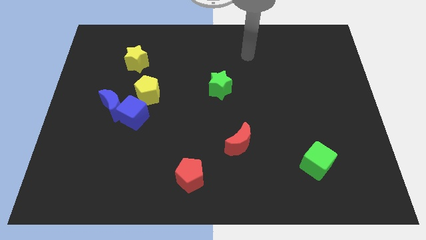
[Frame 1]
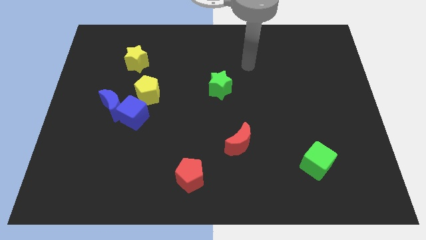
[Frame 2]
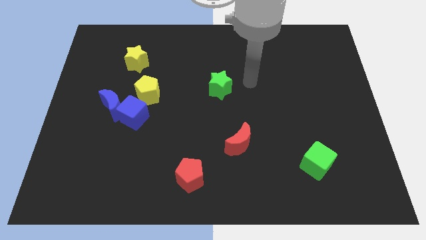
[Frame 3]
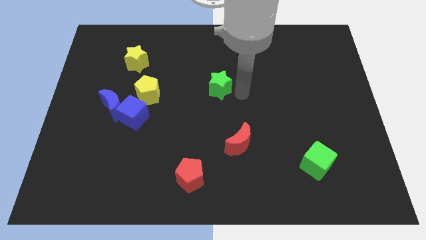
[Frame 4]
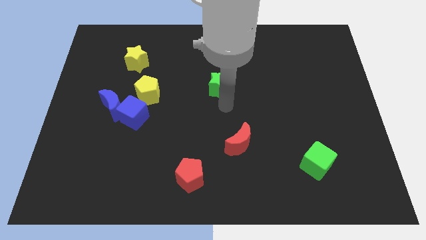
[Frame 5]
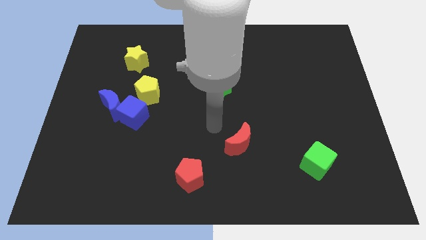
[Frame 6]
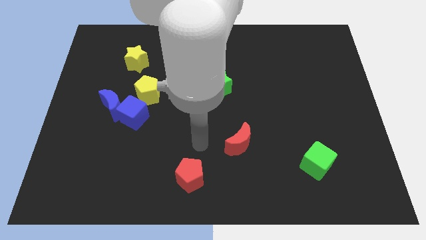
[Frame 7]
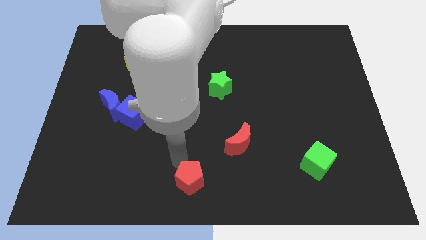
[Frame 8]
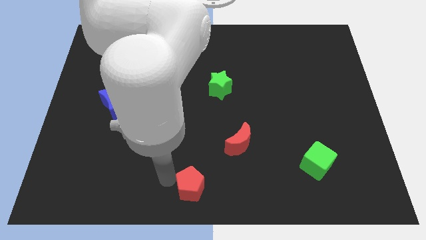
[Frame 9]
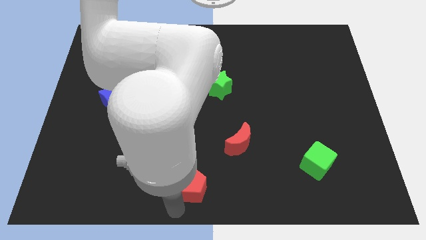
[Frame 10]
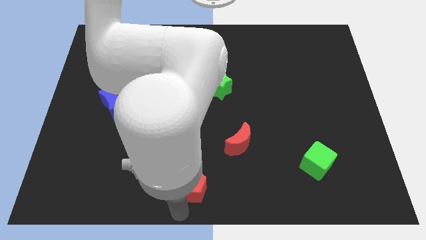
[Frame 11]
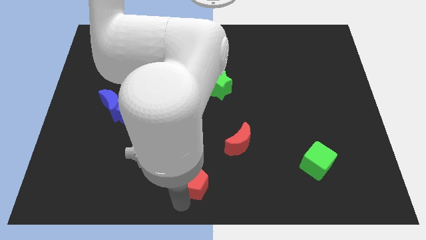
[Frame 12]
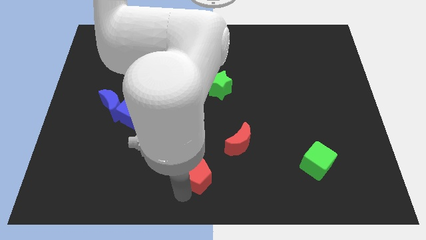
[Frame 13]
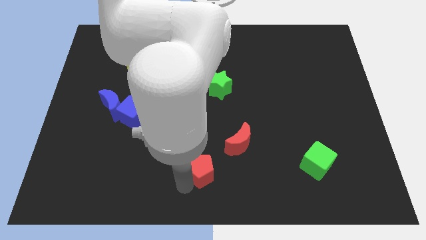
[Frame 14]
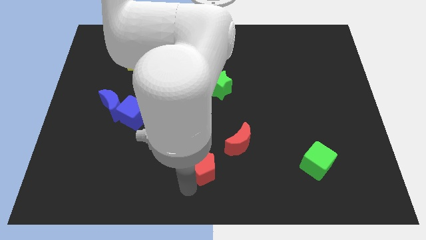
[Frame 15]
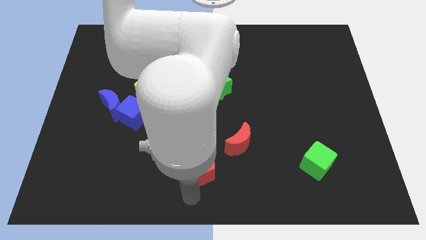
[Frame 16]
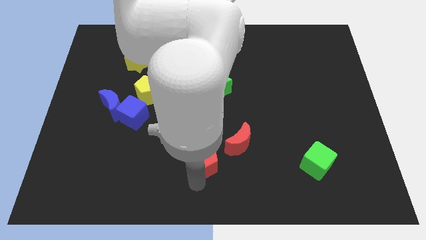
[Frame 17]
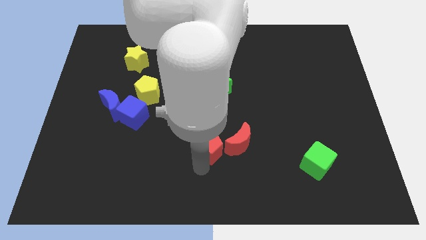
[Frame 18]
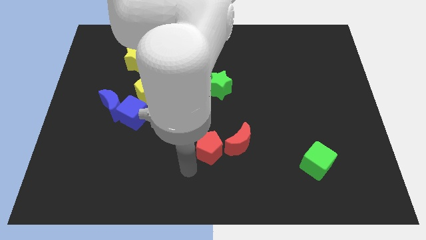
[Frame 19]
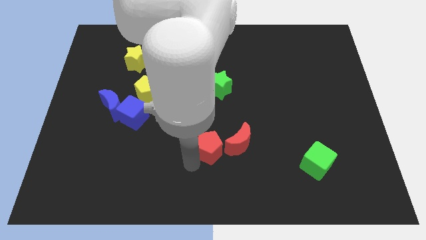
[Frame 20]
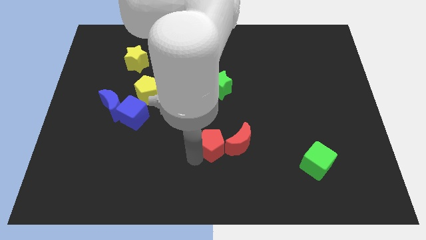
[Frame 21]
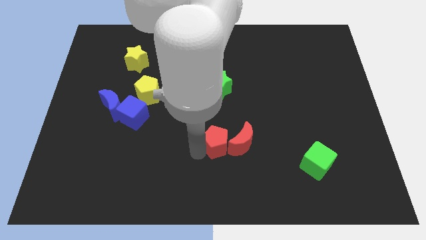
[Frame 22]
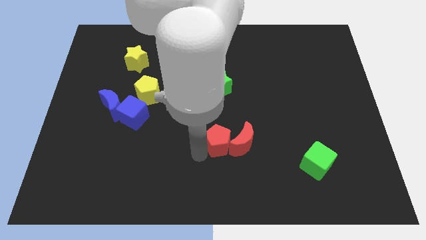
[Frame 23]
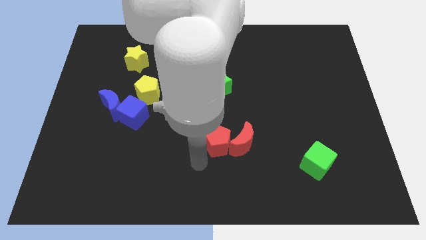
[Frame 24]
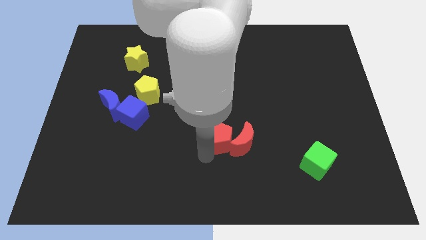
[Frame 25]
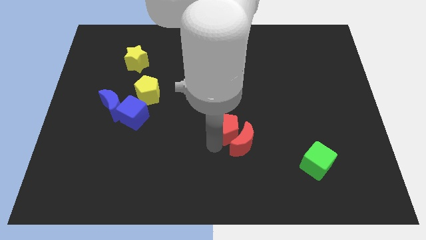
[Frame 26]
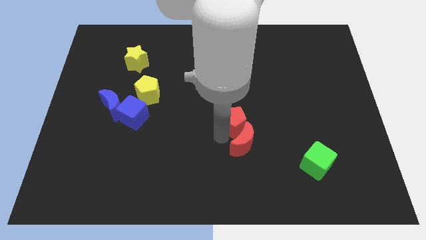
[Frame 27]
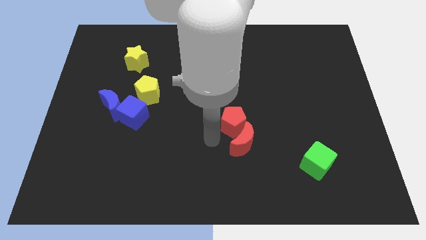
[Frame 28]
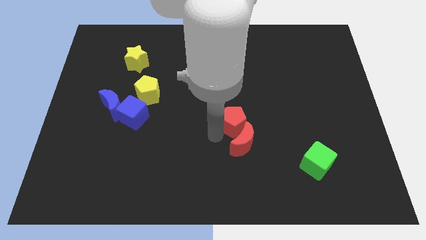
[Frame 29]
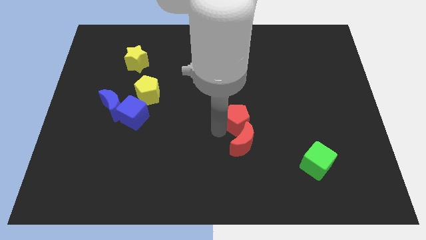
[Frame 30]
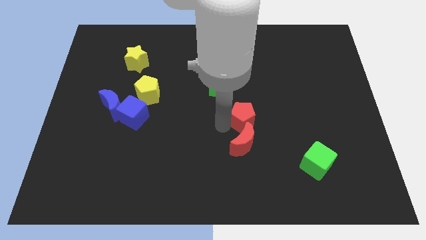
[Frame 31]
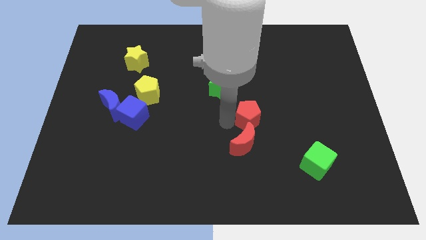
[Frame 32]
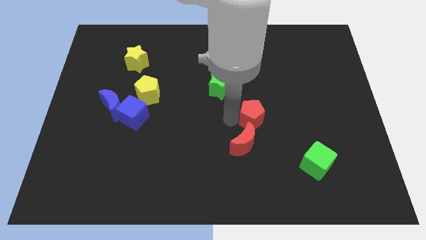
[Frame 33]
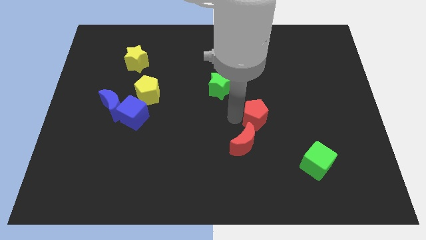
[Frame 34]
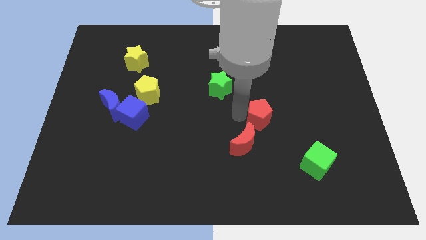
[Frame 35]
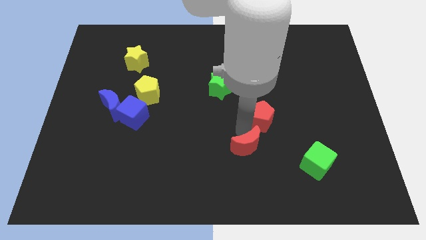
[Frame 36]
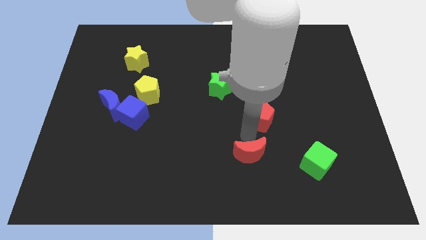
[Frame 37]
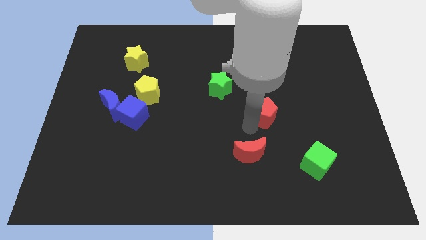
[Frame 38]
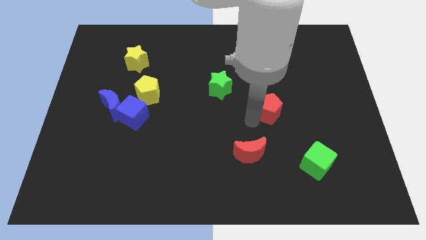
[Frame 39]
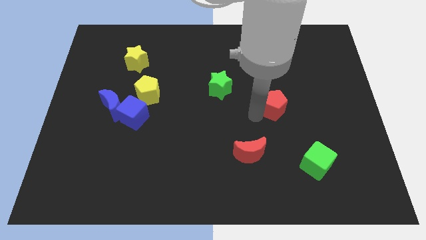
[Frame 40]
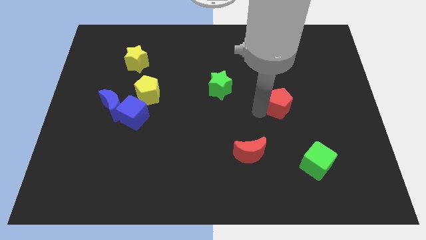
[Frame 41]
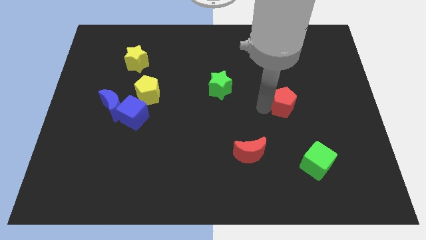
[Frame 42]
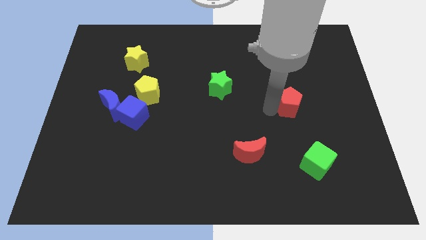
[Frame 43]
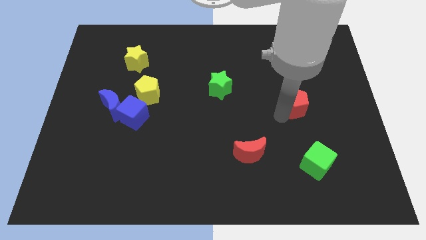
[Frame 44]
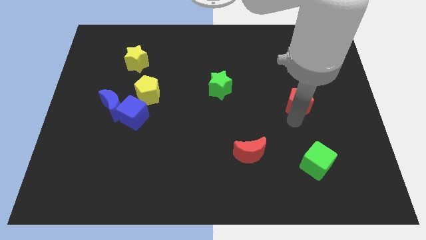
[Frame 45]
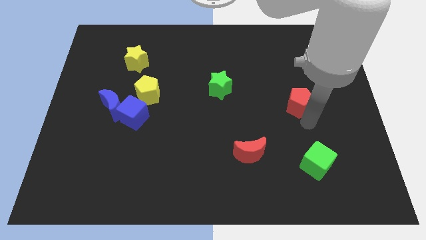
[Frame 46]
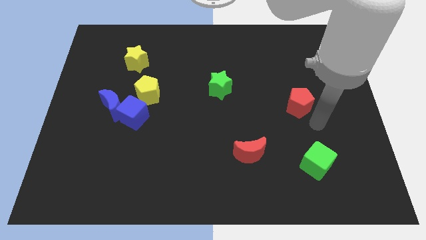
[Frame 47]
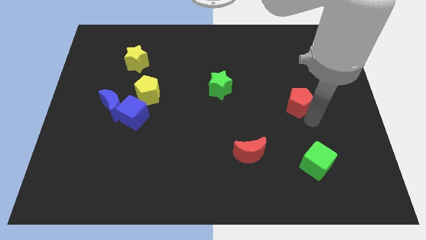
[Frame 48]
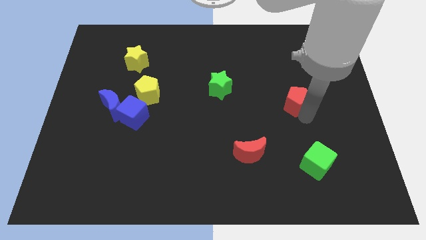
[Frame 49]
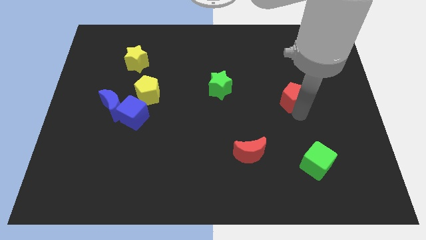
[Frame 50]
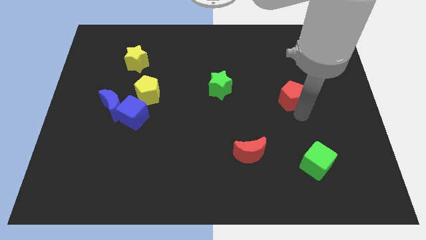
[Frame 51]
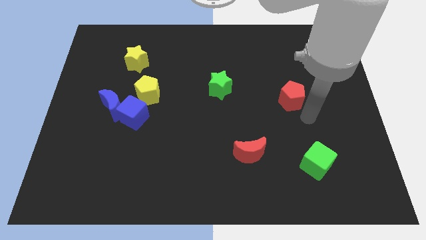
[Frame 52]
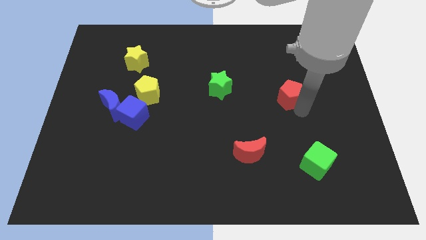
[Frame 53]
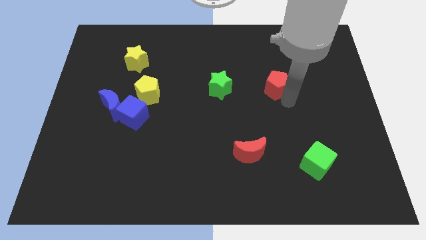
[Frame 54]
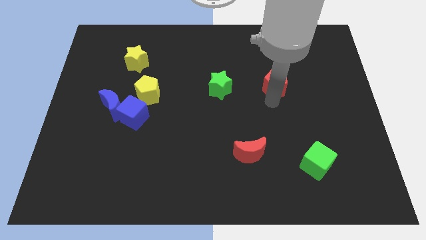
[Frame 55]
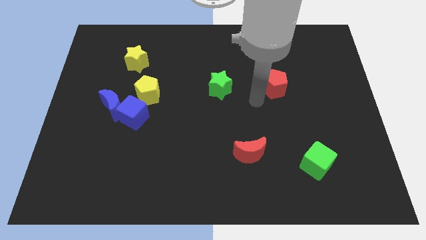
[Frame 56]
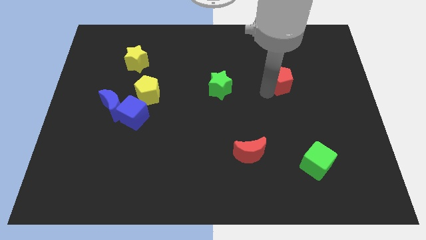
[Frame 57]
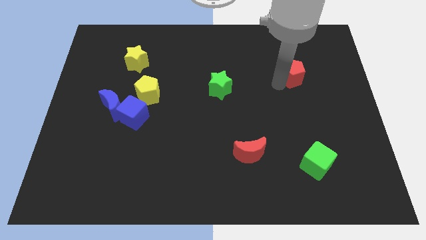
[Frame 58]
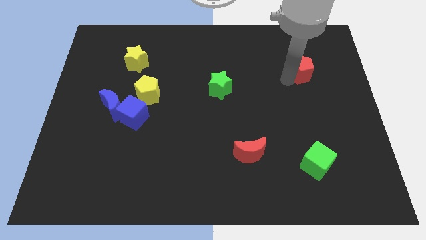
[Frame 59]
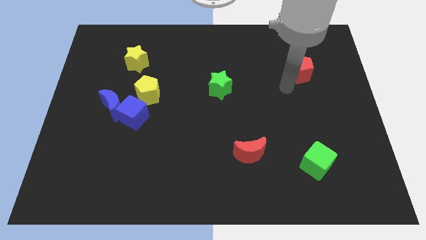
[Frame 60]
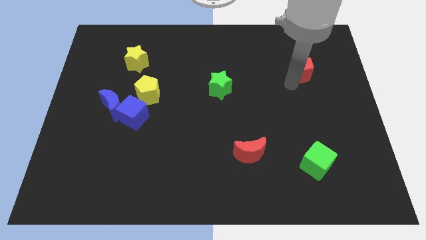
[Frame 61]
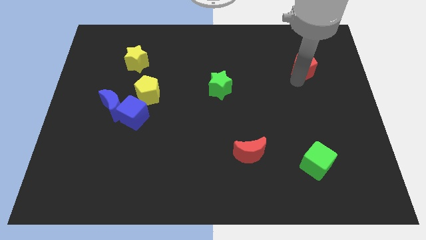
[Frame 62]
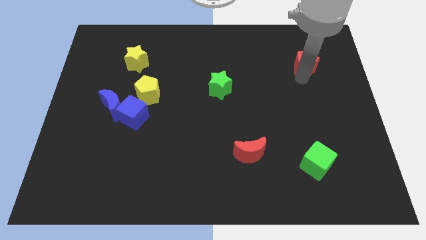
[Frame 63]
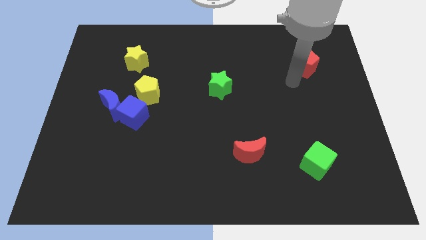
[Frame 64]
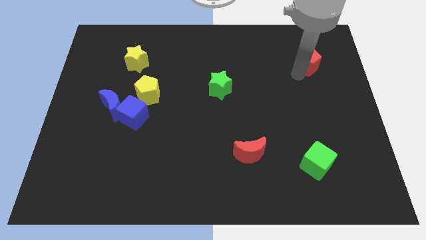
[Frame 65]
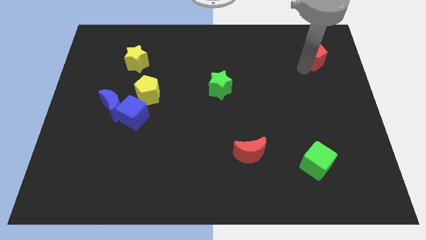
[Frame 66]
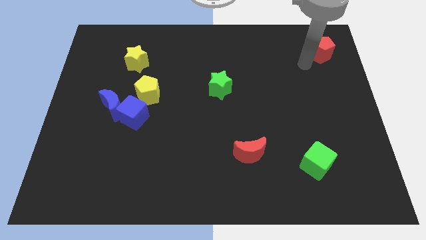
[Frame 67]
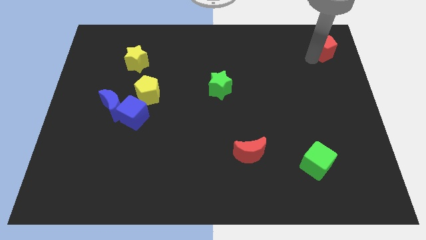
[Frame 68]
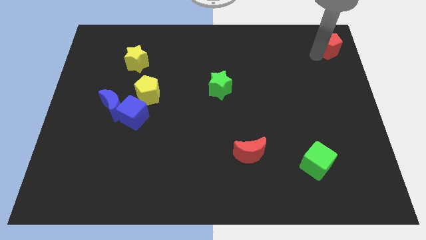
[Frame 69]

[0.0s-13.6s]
put the red pentagon to the top right corner
